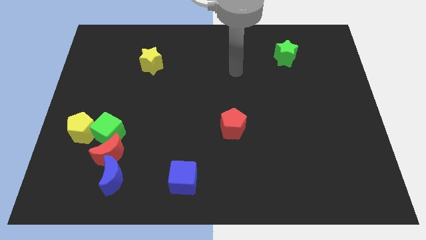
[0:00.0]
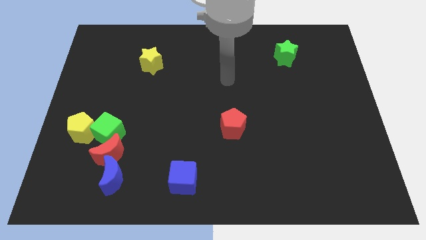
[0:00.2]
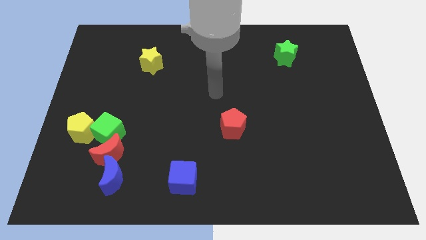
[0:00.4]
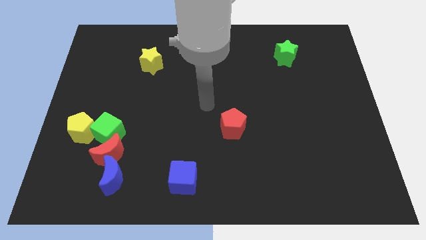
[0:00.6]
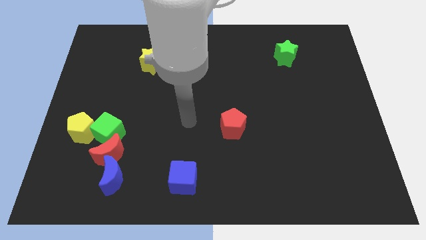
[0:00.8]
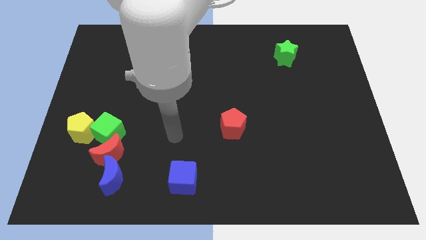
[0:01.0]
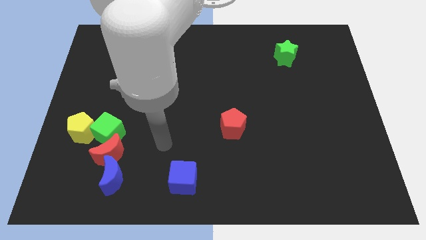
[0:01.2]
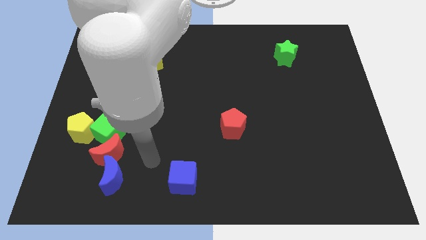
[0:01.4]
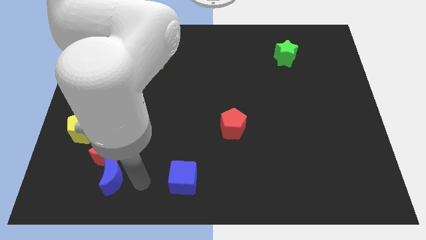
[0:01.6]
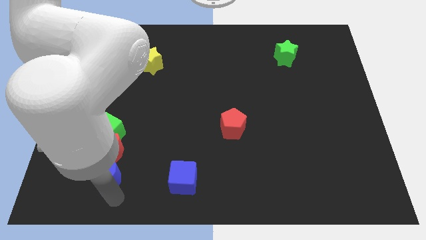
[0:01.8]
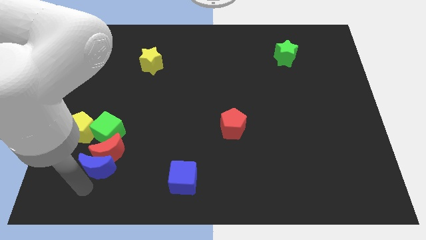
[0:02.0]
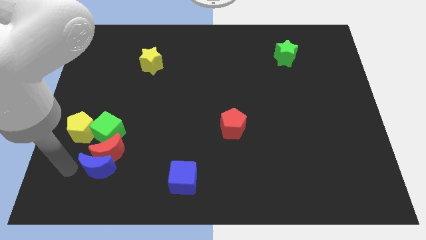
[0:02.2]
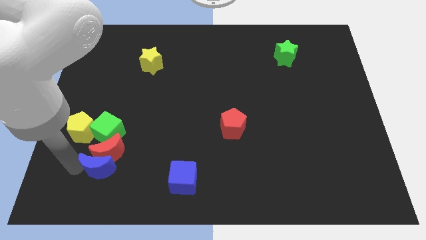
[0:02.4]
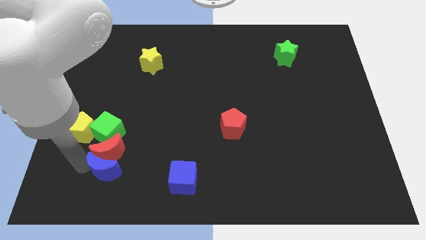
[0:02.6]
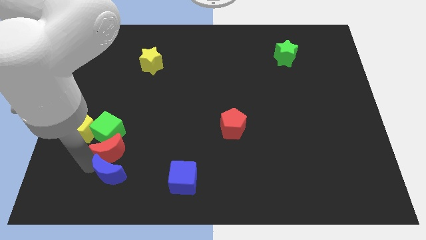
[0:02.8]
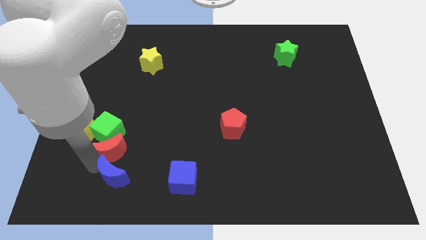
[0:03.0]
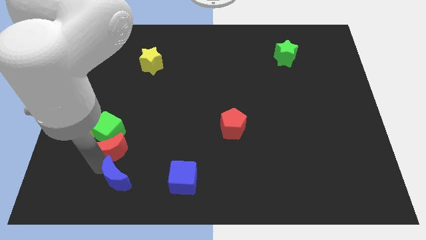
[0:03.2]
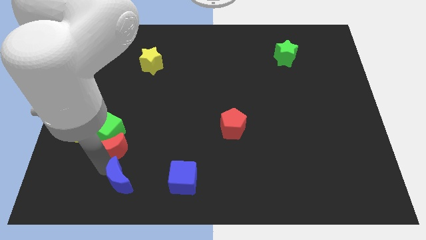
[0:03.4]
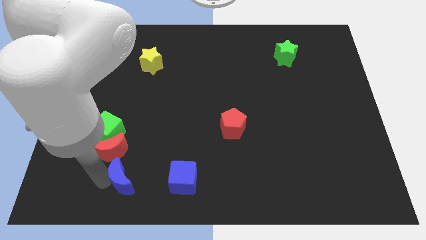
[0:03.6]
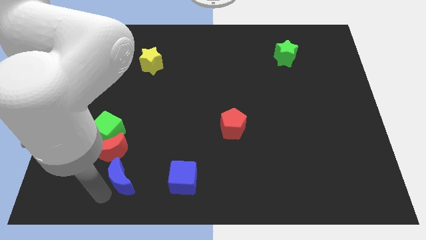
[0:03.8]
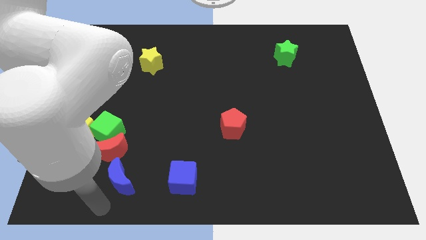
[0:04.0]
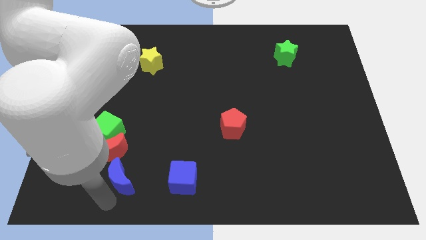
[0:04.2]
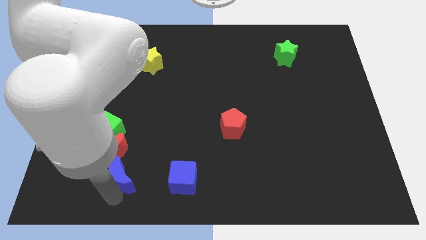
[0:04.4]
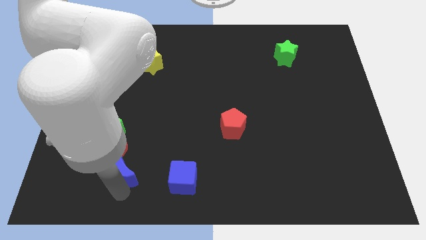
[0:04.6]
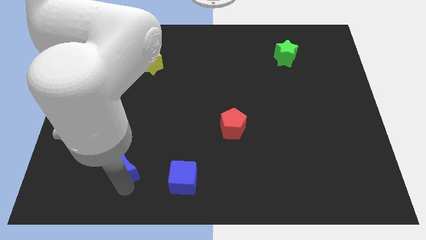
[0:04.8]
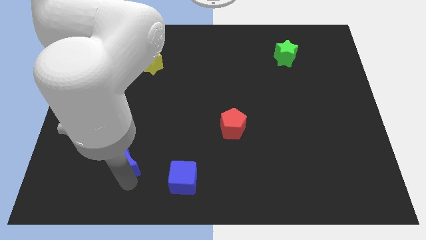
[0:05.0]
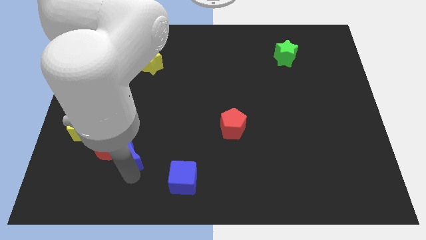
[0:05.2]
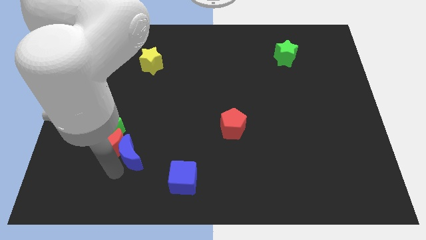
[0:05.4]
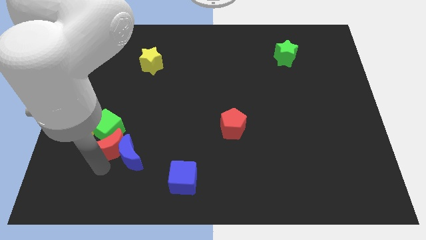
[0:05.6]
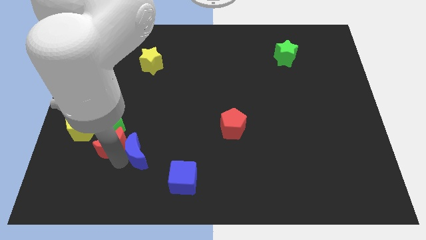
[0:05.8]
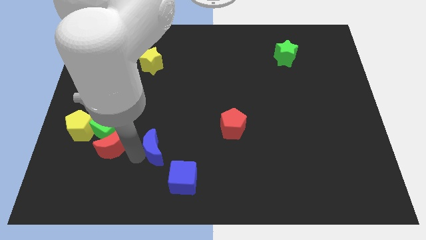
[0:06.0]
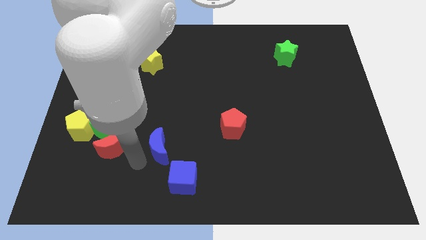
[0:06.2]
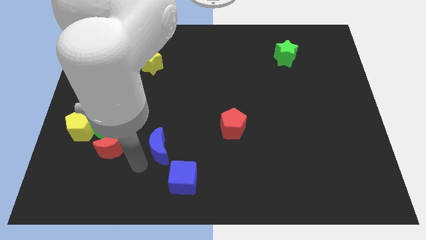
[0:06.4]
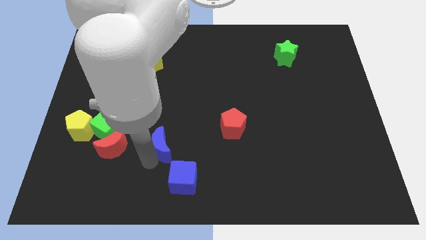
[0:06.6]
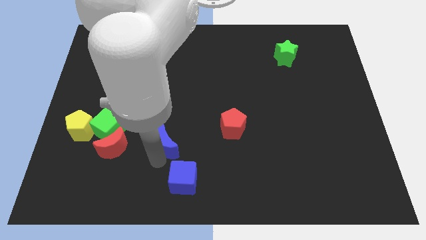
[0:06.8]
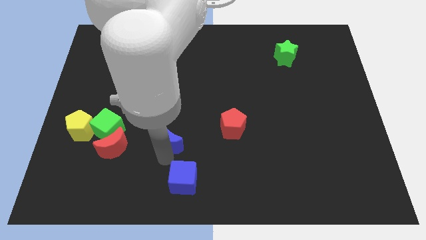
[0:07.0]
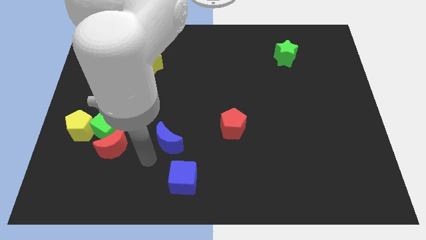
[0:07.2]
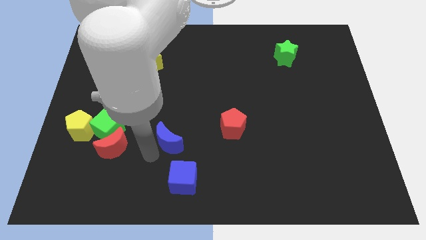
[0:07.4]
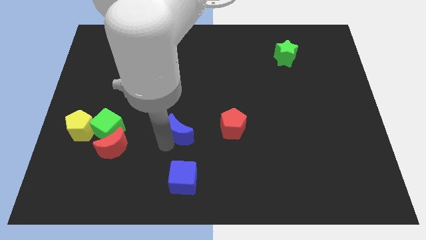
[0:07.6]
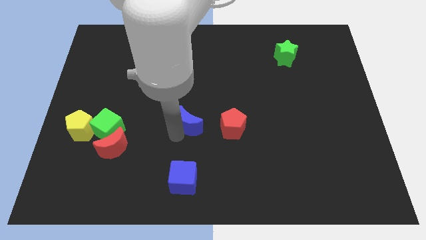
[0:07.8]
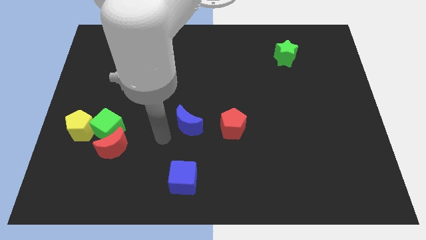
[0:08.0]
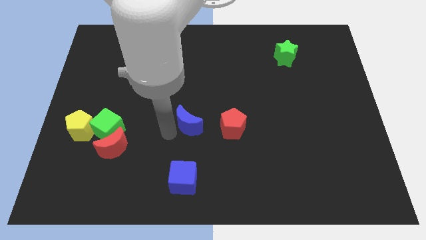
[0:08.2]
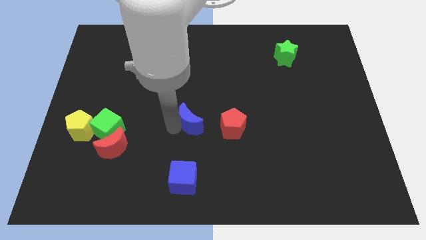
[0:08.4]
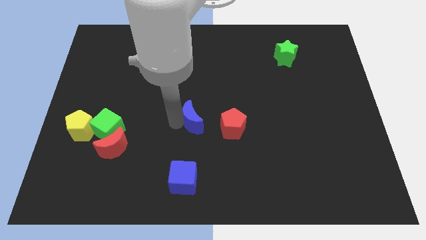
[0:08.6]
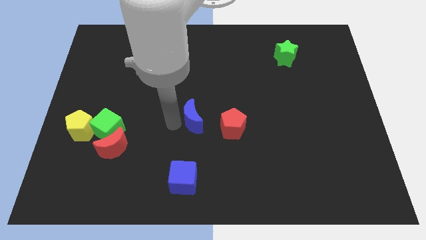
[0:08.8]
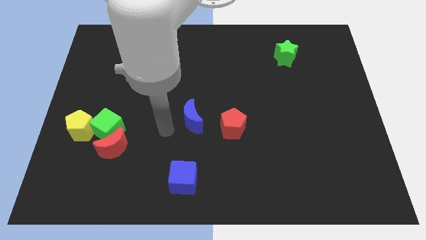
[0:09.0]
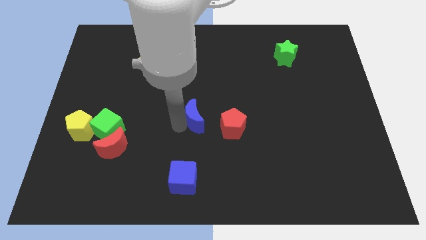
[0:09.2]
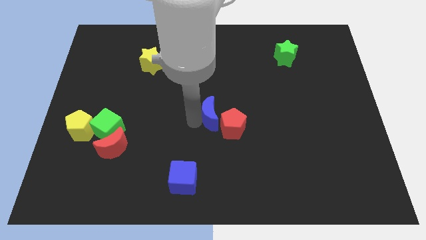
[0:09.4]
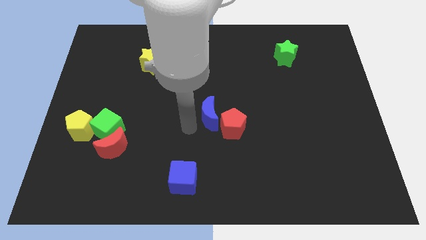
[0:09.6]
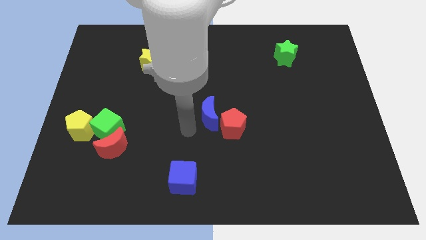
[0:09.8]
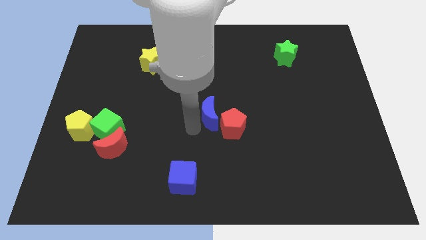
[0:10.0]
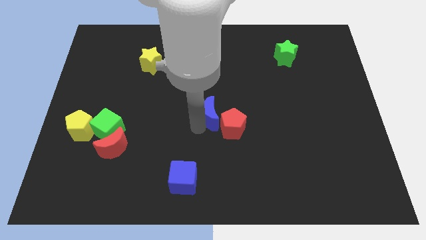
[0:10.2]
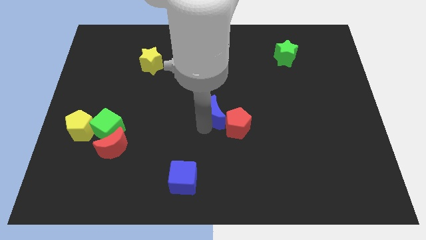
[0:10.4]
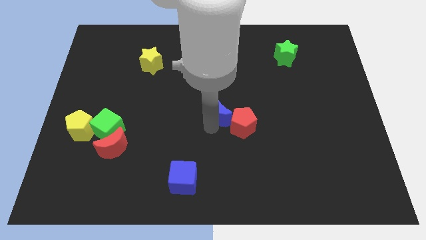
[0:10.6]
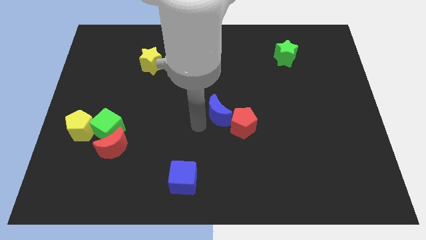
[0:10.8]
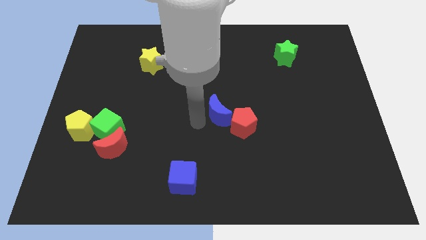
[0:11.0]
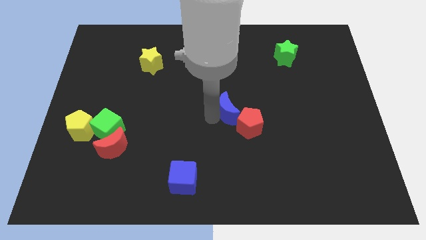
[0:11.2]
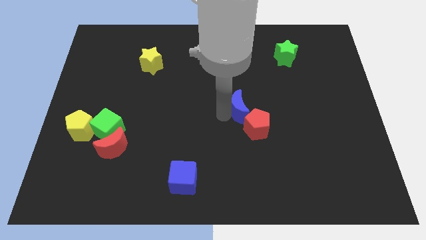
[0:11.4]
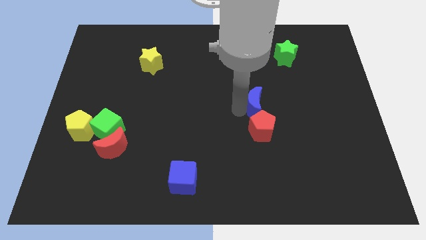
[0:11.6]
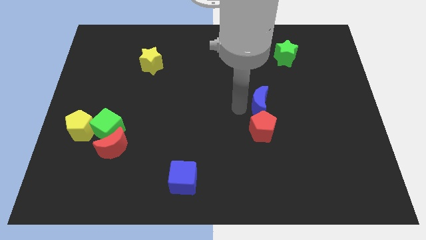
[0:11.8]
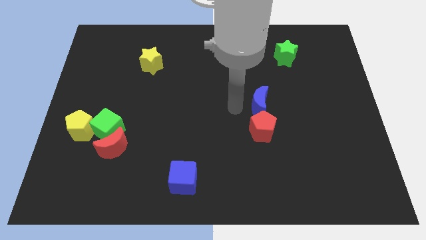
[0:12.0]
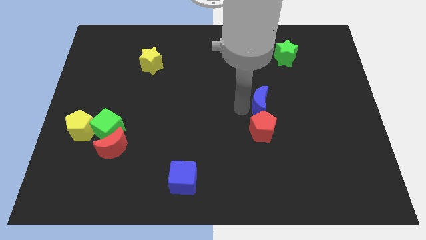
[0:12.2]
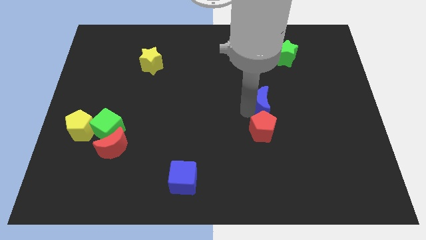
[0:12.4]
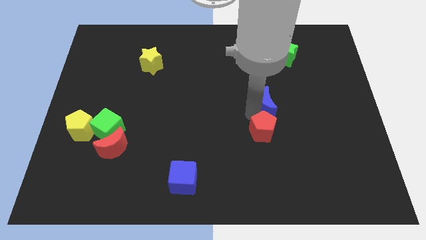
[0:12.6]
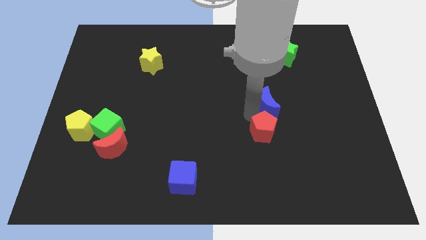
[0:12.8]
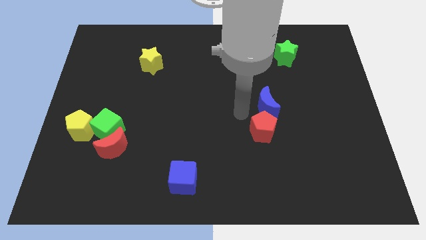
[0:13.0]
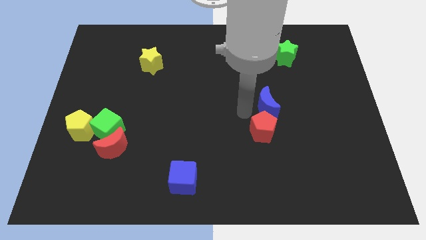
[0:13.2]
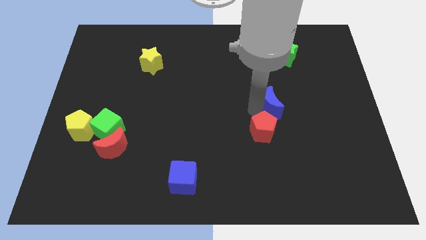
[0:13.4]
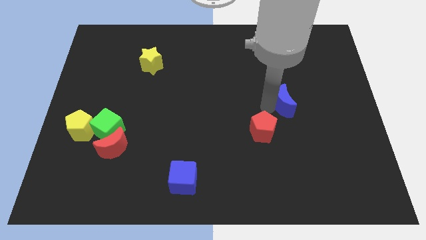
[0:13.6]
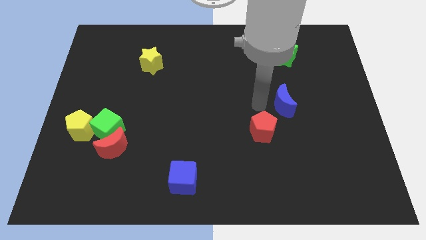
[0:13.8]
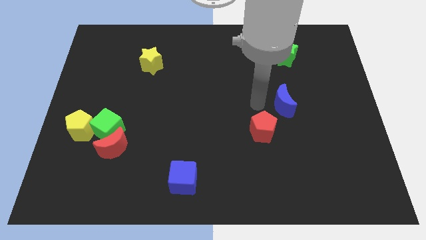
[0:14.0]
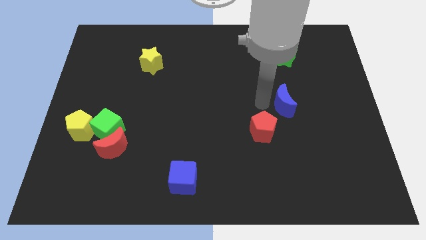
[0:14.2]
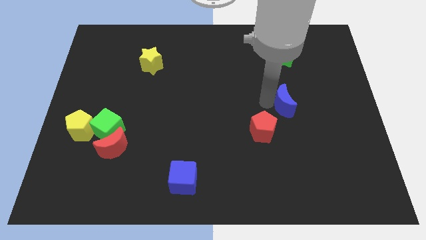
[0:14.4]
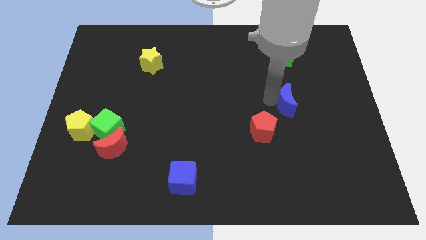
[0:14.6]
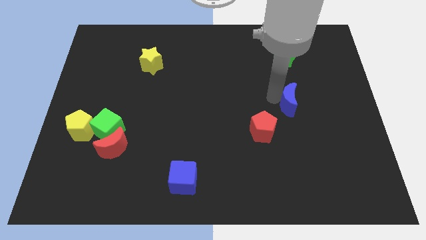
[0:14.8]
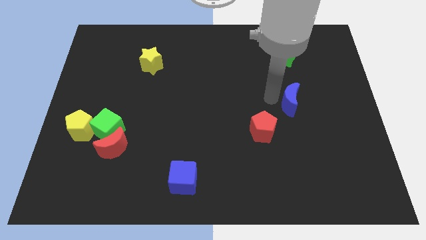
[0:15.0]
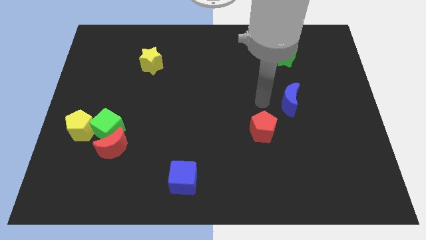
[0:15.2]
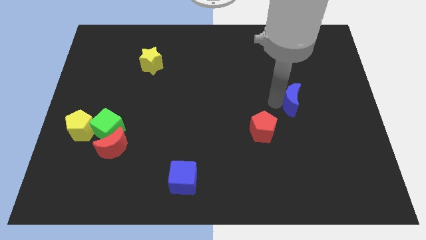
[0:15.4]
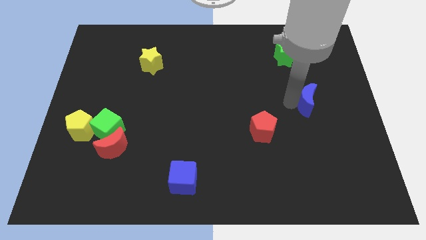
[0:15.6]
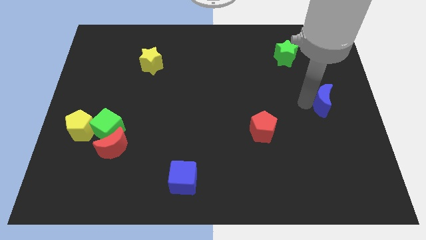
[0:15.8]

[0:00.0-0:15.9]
slide the blue moon to the right side

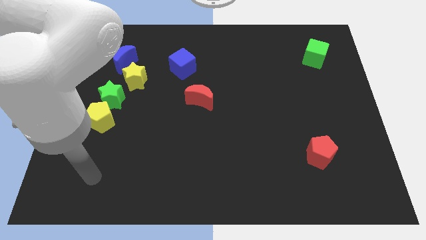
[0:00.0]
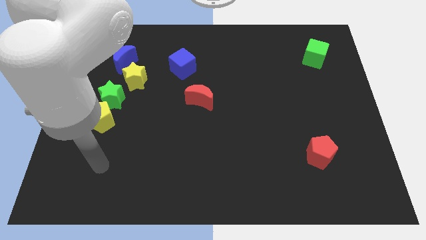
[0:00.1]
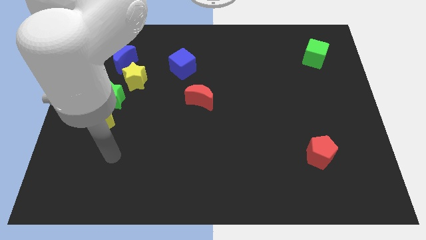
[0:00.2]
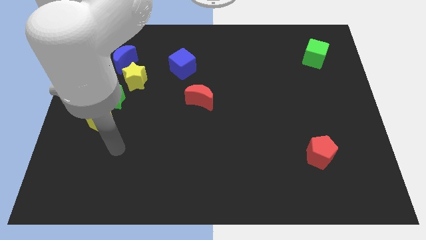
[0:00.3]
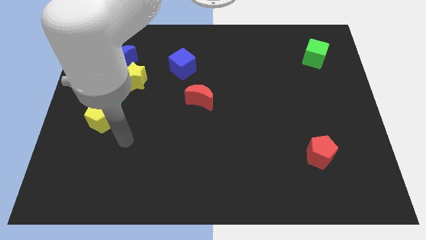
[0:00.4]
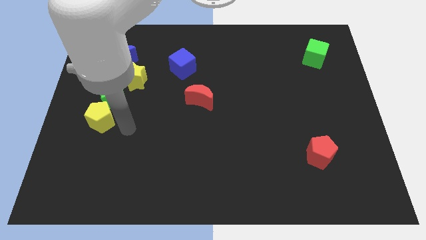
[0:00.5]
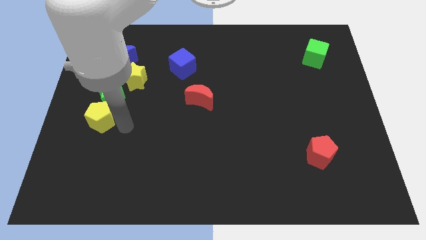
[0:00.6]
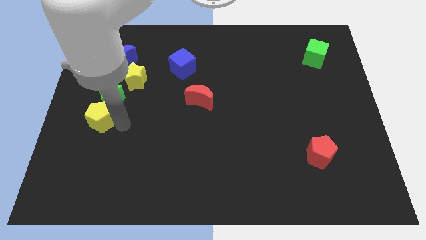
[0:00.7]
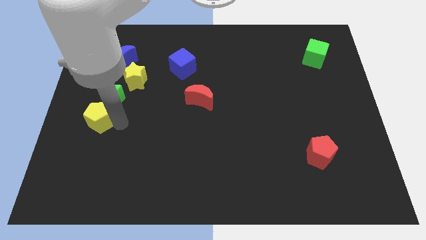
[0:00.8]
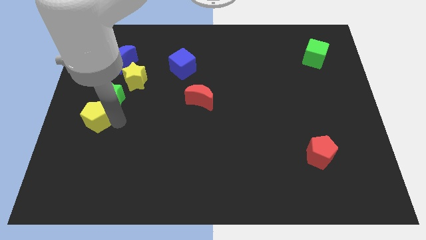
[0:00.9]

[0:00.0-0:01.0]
slide the yellow pentagon to the left side
